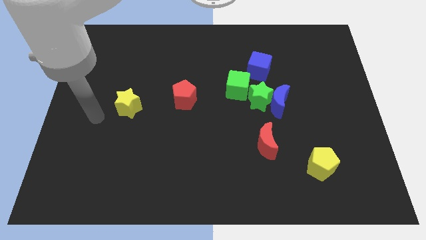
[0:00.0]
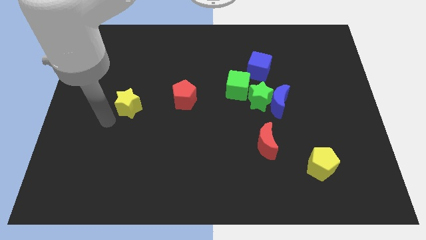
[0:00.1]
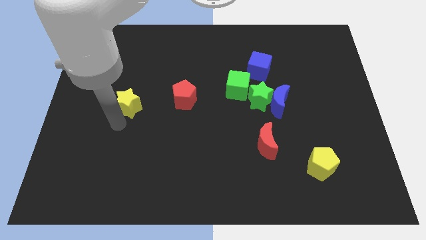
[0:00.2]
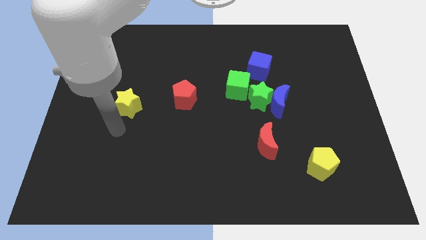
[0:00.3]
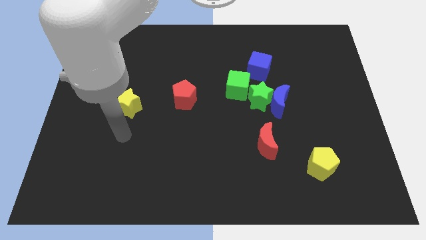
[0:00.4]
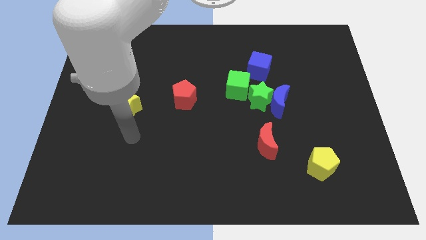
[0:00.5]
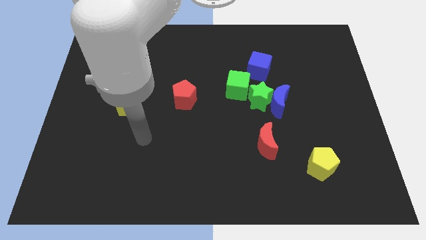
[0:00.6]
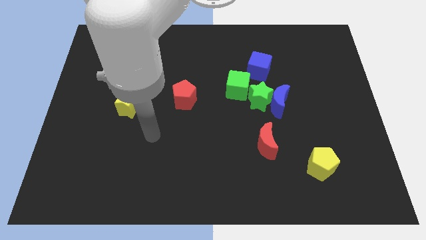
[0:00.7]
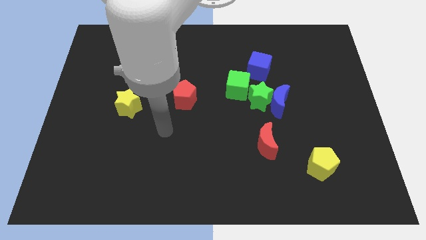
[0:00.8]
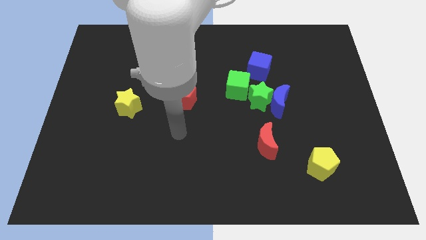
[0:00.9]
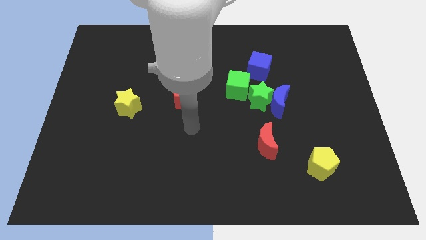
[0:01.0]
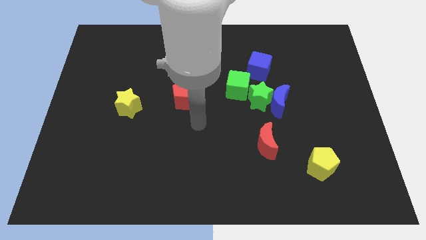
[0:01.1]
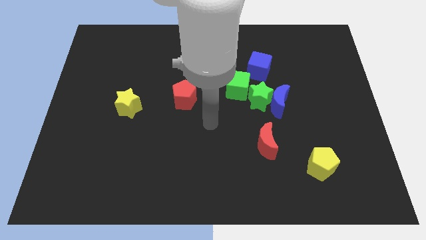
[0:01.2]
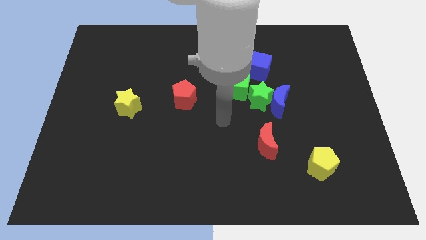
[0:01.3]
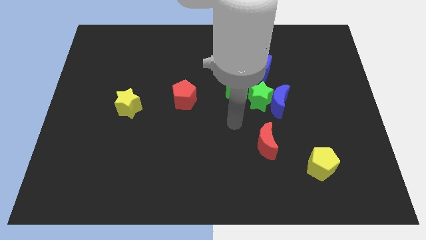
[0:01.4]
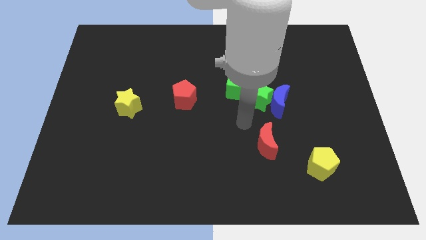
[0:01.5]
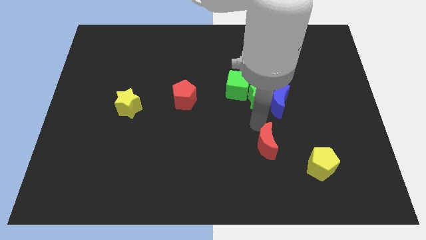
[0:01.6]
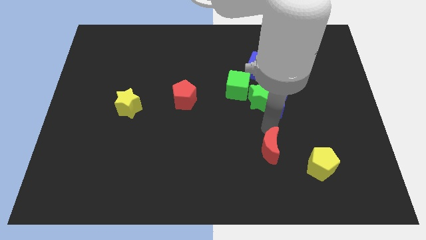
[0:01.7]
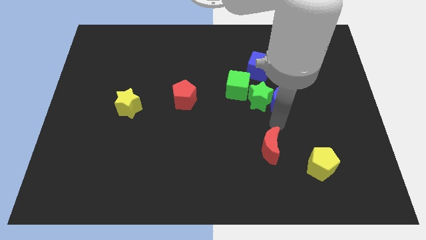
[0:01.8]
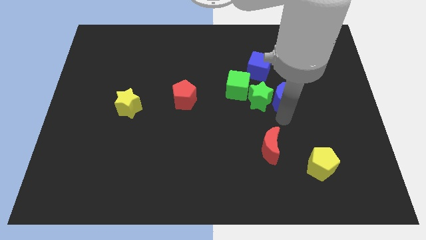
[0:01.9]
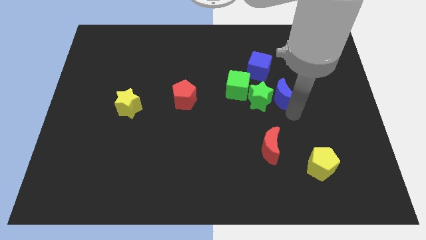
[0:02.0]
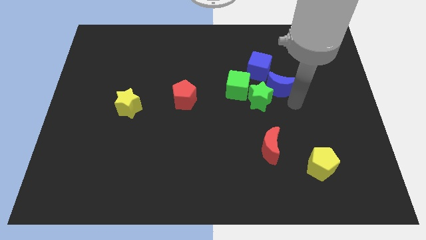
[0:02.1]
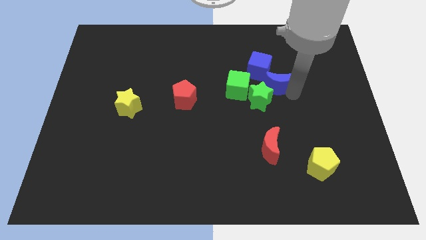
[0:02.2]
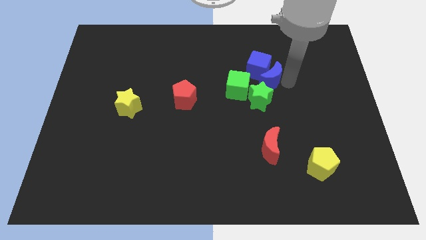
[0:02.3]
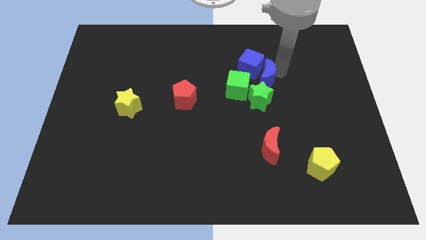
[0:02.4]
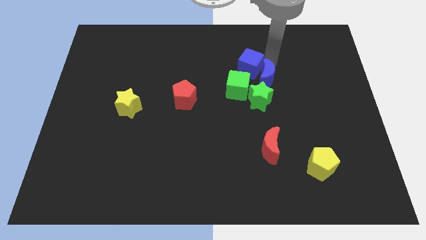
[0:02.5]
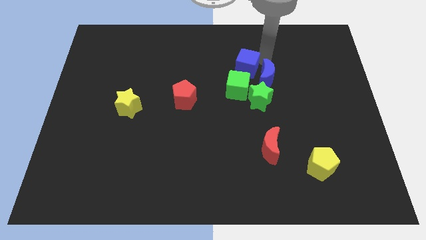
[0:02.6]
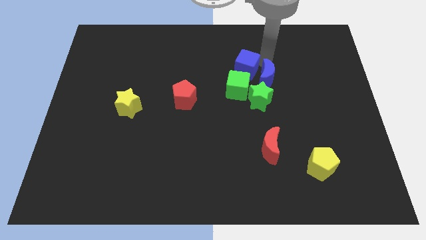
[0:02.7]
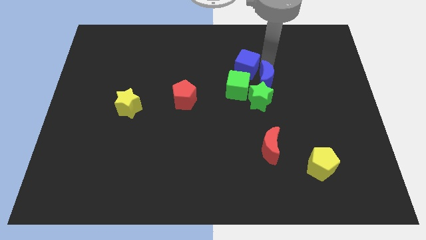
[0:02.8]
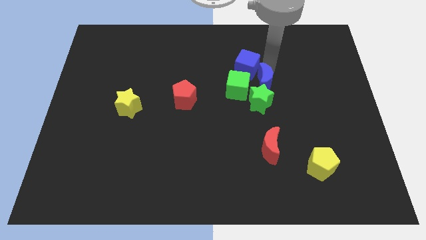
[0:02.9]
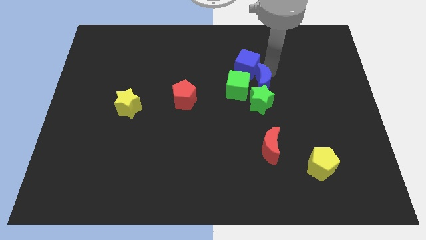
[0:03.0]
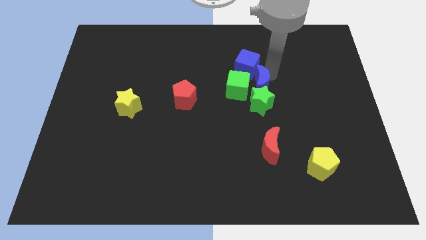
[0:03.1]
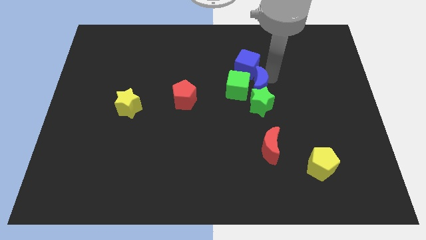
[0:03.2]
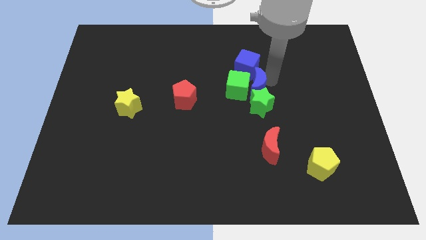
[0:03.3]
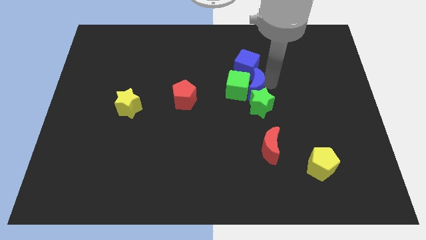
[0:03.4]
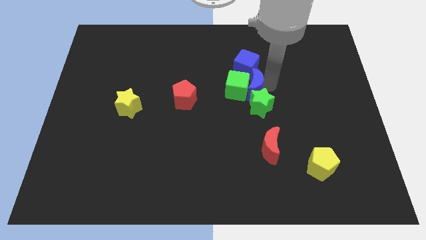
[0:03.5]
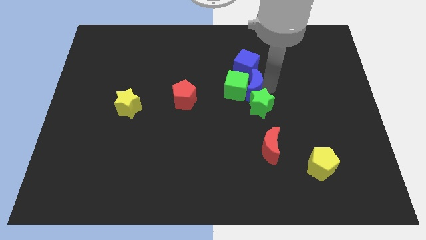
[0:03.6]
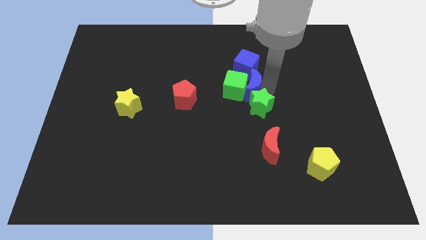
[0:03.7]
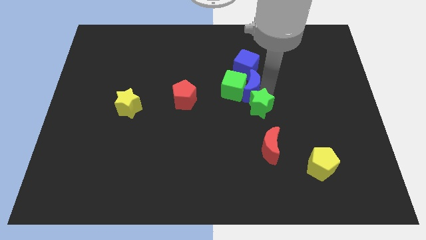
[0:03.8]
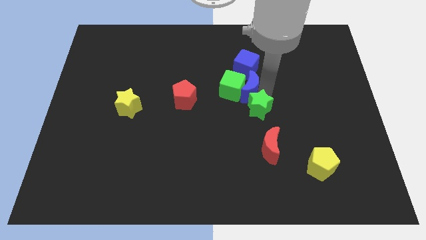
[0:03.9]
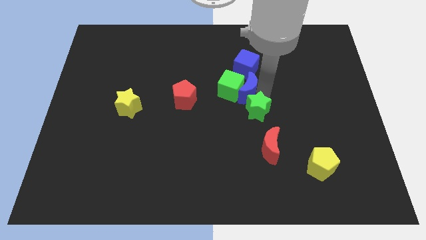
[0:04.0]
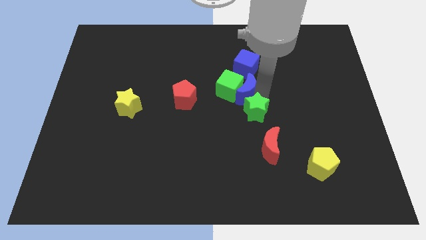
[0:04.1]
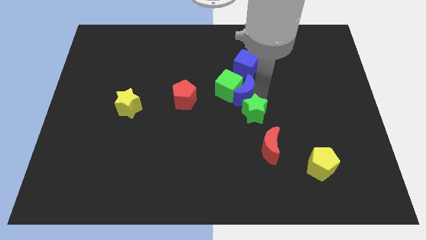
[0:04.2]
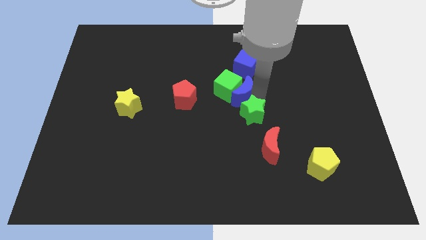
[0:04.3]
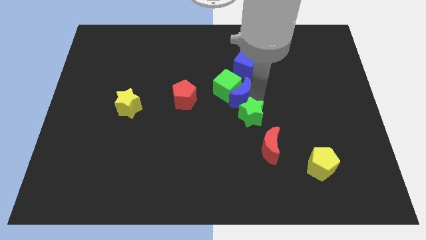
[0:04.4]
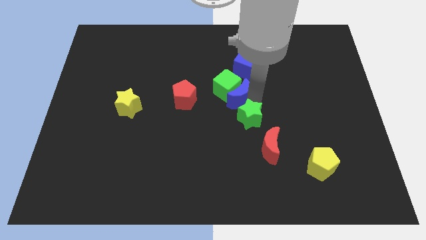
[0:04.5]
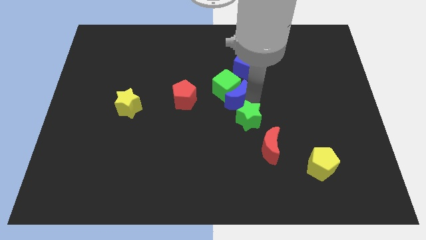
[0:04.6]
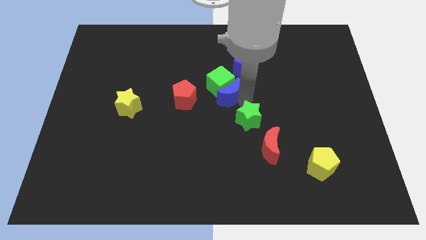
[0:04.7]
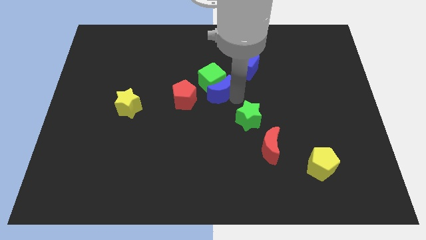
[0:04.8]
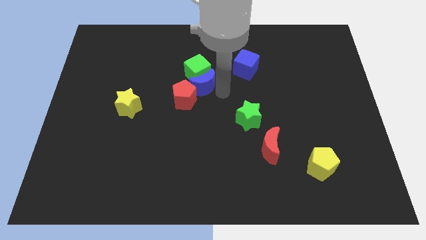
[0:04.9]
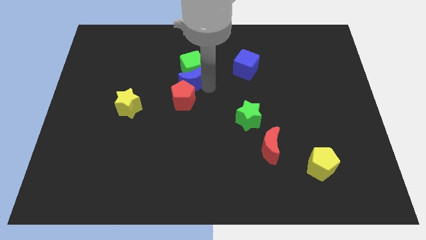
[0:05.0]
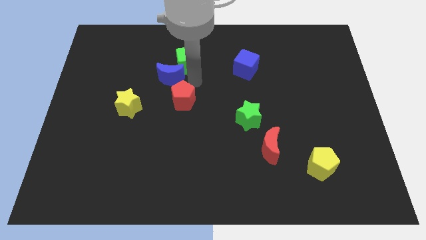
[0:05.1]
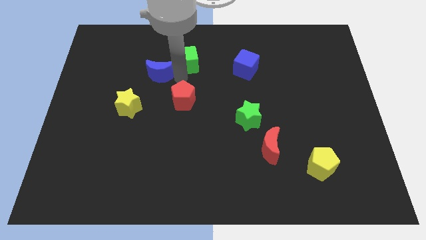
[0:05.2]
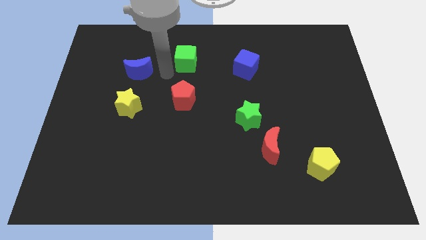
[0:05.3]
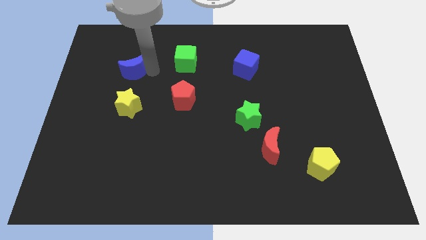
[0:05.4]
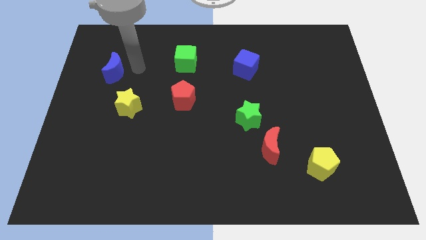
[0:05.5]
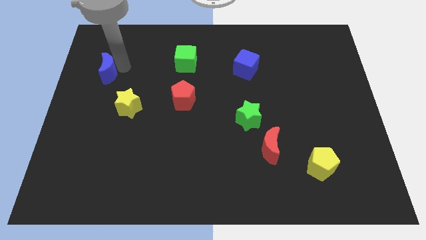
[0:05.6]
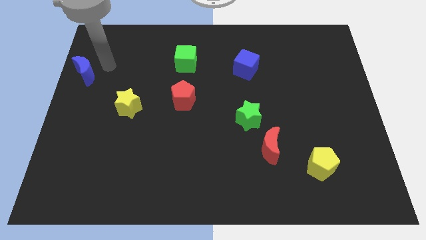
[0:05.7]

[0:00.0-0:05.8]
put the blue moon to the center left

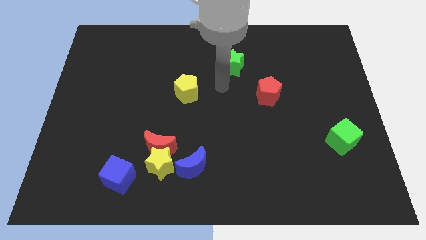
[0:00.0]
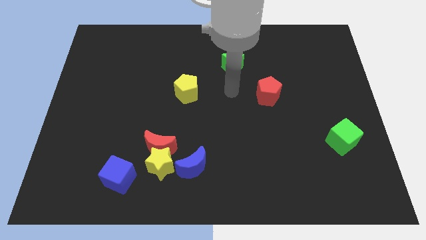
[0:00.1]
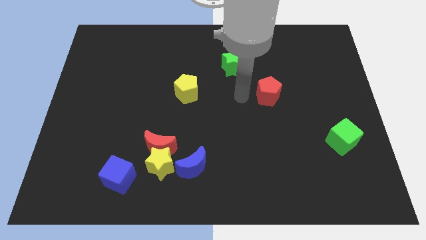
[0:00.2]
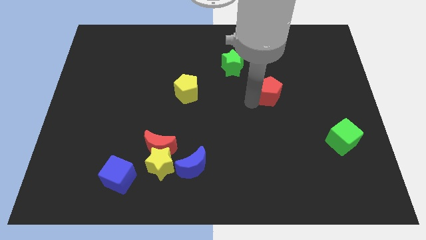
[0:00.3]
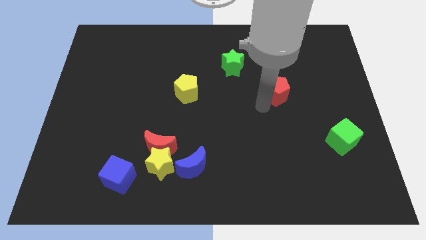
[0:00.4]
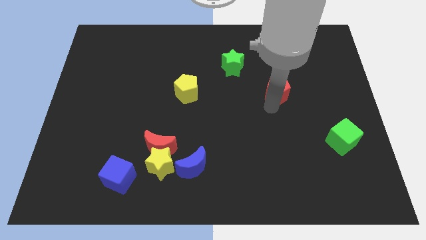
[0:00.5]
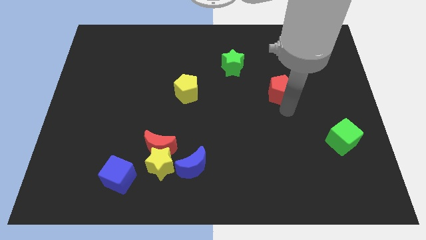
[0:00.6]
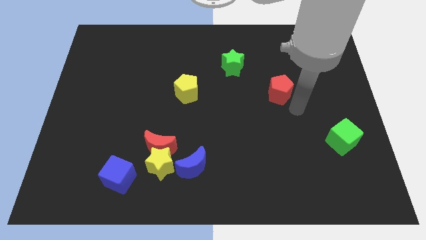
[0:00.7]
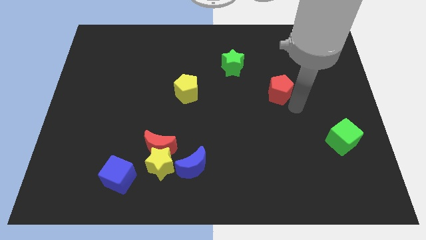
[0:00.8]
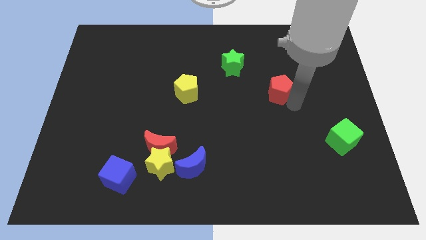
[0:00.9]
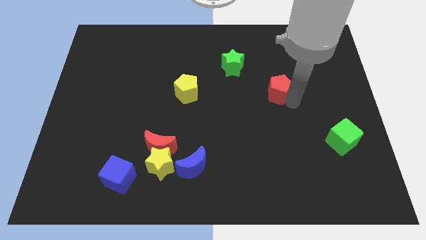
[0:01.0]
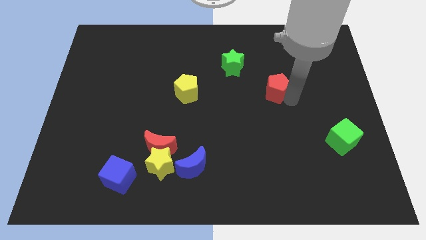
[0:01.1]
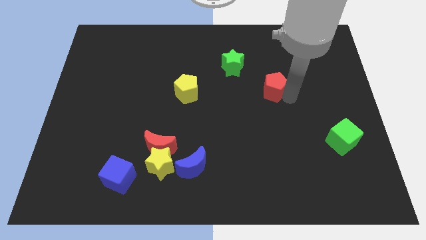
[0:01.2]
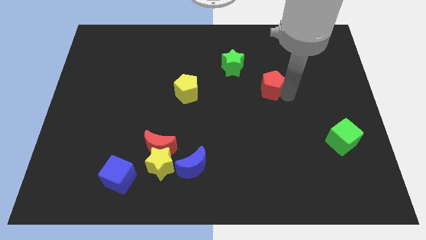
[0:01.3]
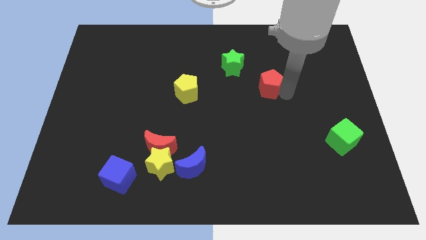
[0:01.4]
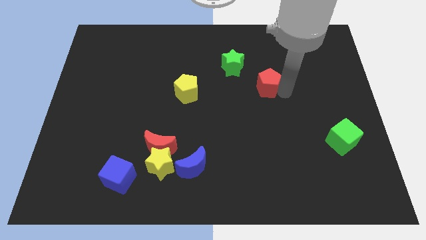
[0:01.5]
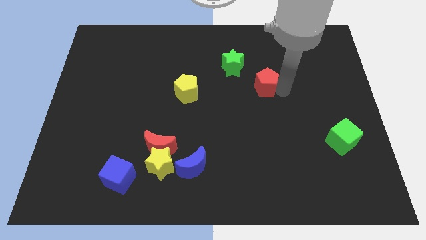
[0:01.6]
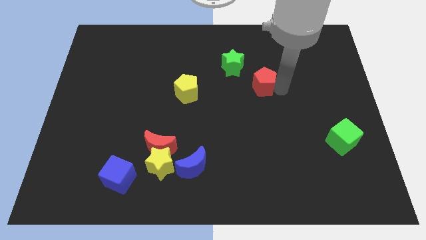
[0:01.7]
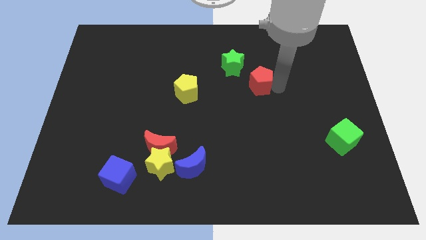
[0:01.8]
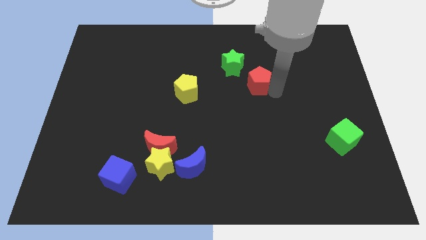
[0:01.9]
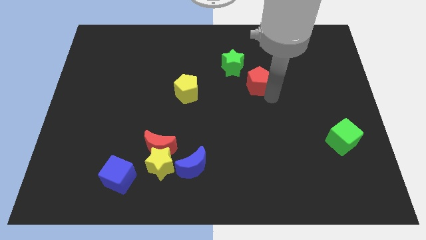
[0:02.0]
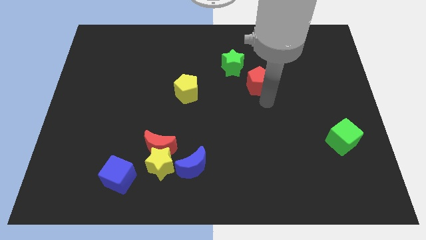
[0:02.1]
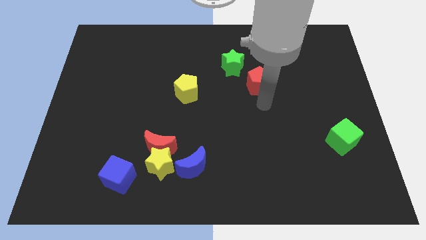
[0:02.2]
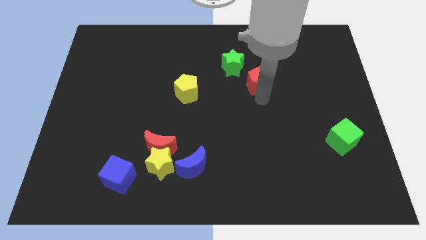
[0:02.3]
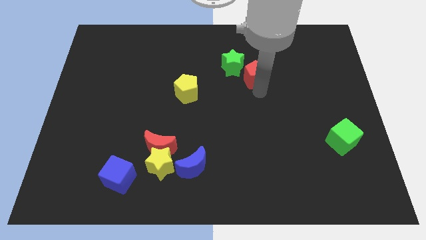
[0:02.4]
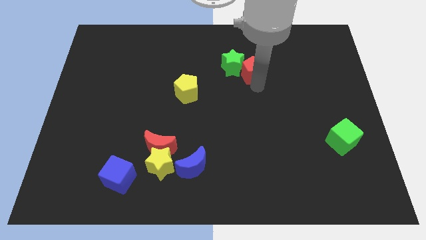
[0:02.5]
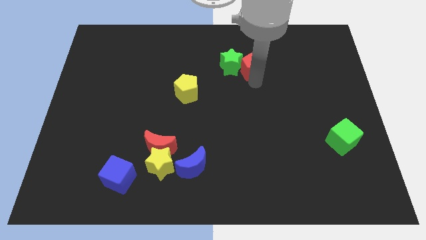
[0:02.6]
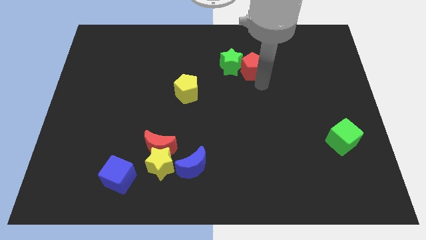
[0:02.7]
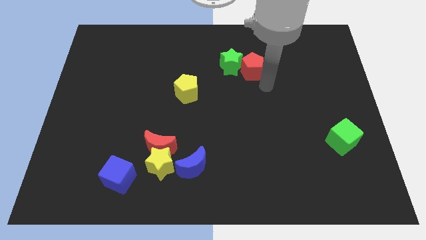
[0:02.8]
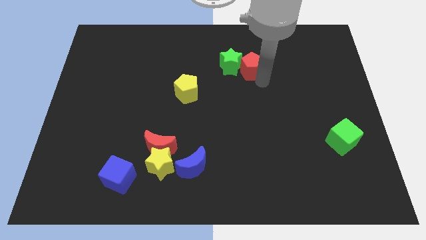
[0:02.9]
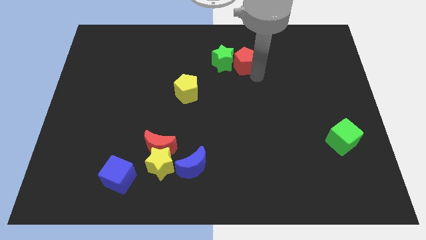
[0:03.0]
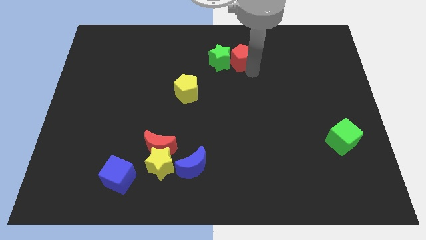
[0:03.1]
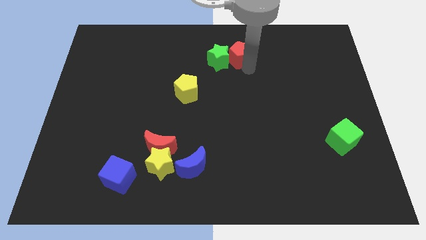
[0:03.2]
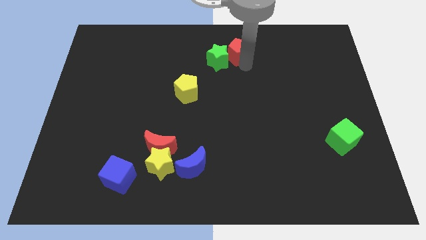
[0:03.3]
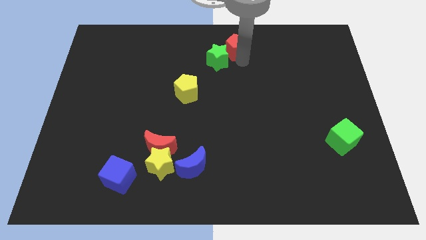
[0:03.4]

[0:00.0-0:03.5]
push the red pentagon to the towards your base
